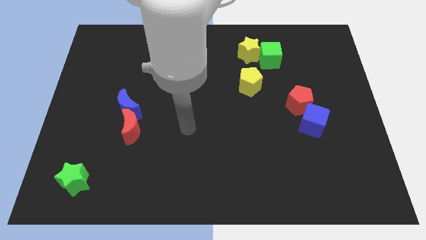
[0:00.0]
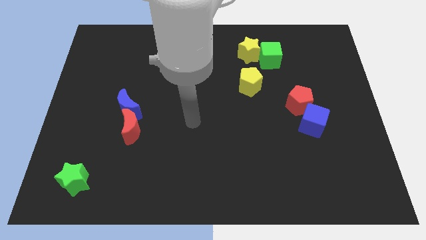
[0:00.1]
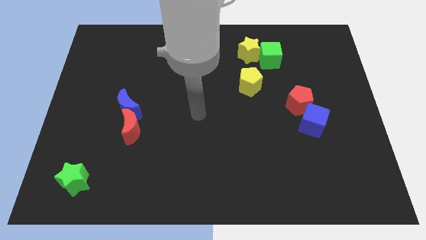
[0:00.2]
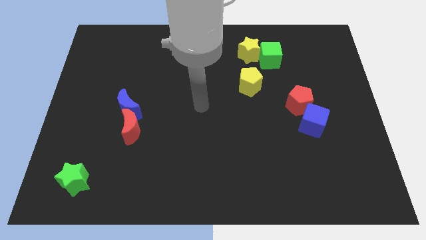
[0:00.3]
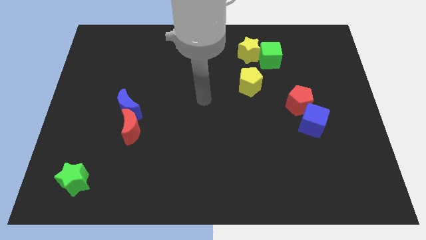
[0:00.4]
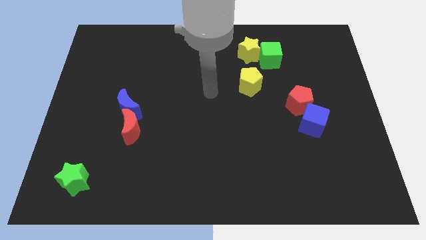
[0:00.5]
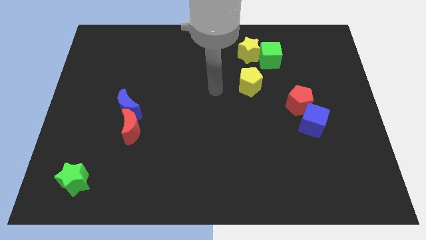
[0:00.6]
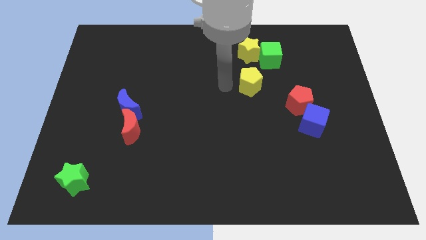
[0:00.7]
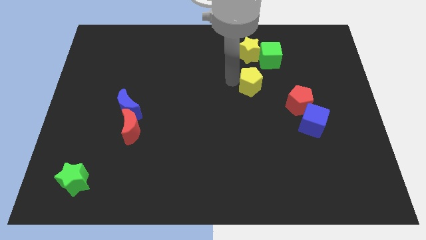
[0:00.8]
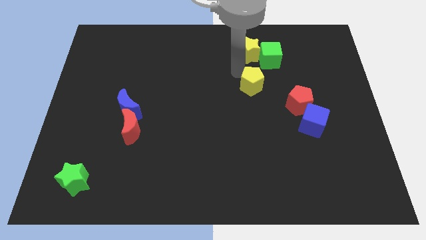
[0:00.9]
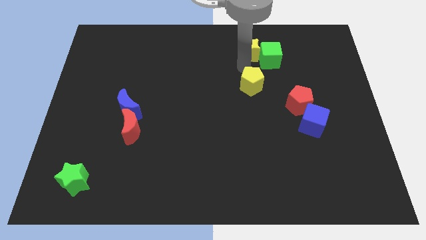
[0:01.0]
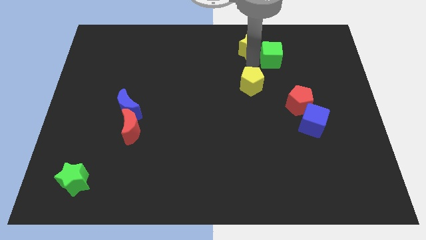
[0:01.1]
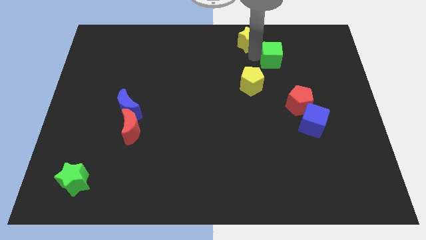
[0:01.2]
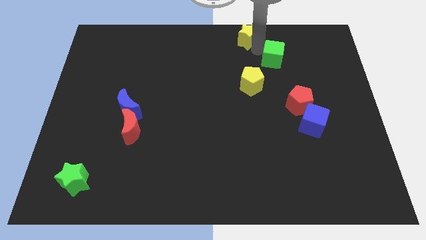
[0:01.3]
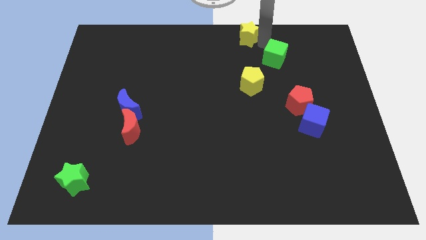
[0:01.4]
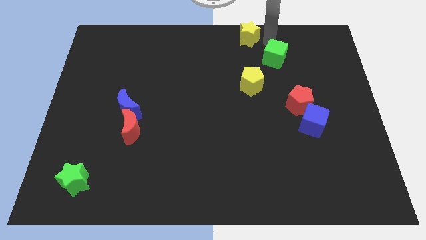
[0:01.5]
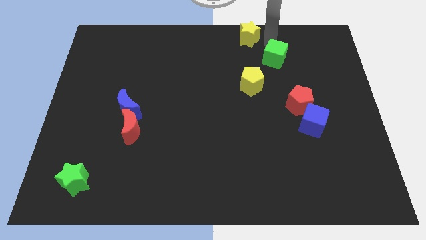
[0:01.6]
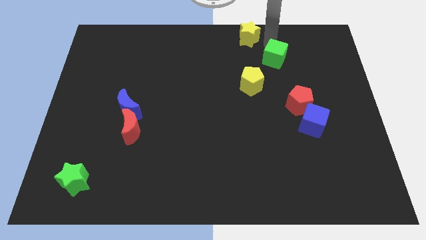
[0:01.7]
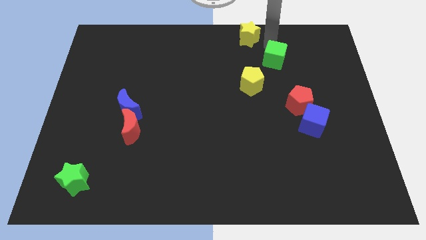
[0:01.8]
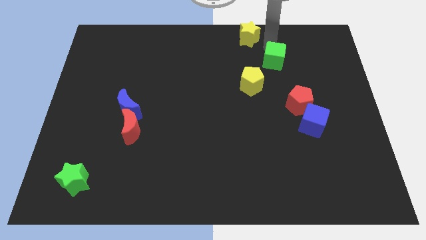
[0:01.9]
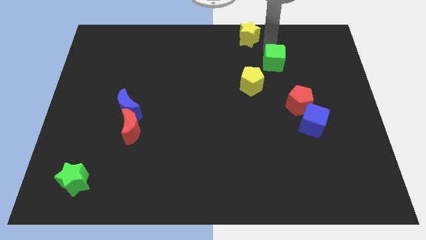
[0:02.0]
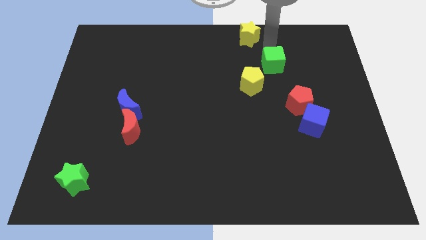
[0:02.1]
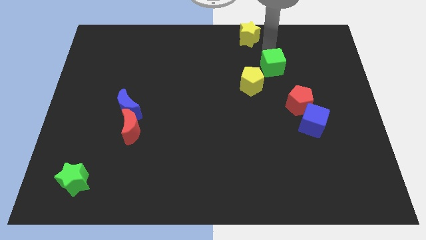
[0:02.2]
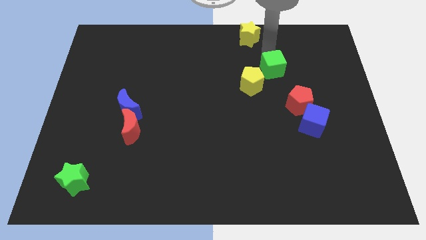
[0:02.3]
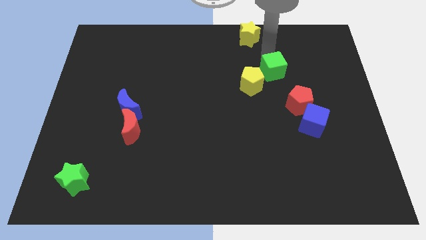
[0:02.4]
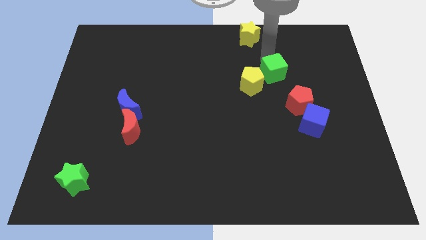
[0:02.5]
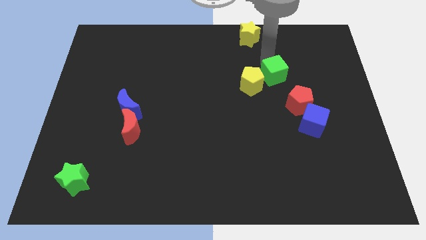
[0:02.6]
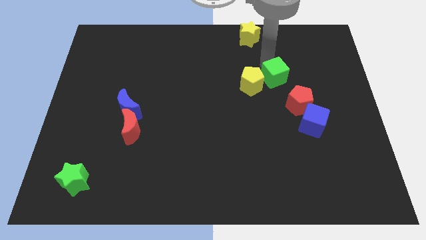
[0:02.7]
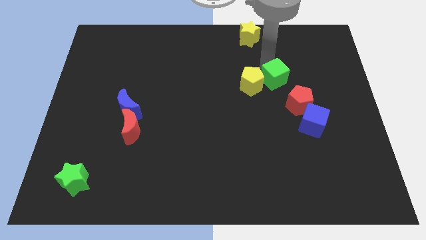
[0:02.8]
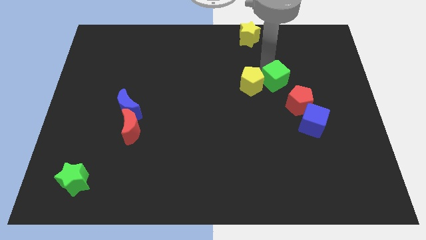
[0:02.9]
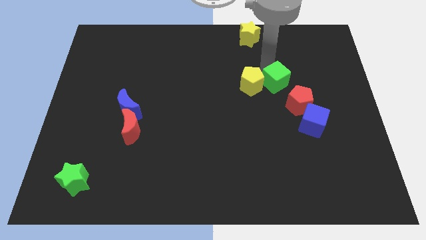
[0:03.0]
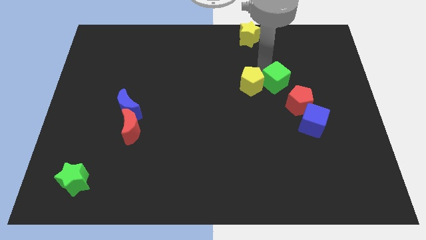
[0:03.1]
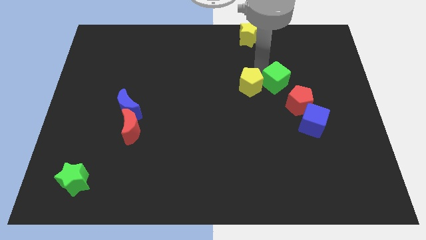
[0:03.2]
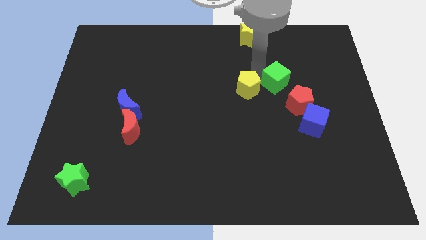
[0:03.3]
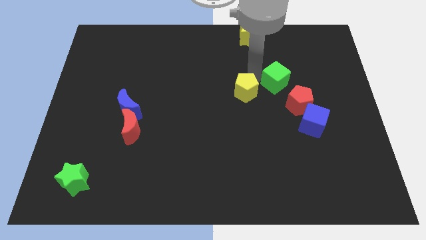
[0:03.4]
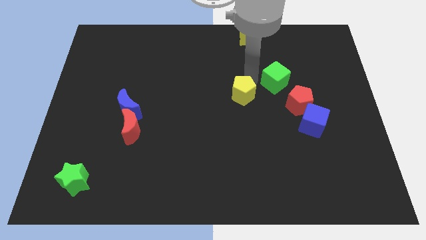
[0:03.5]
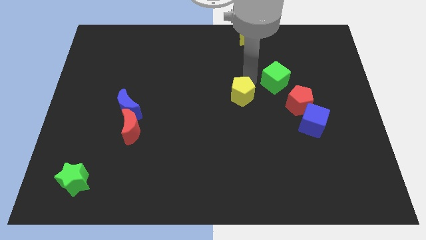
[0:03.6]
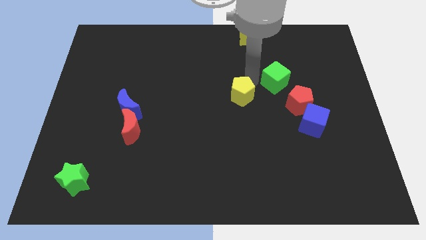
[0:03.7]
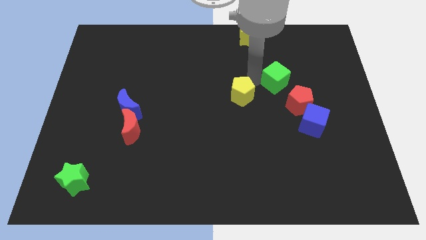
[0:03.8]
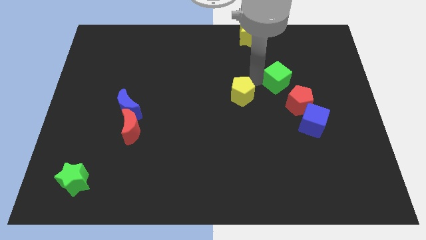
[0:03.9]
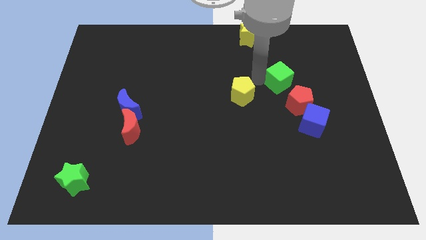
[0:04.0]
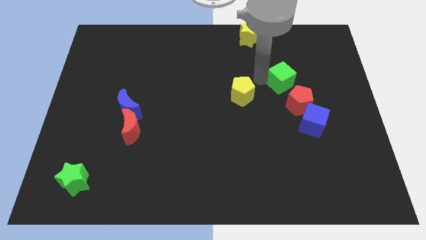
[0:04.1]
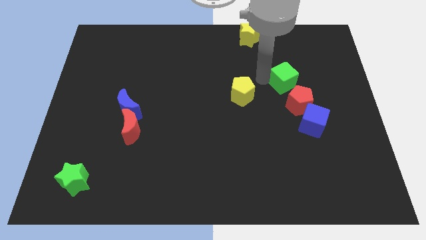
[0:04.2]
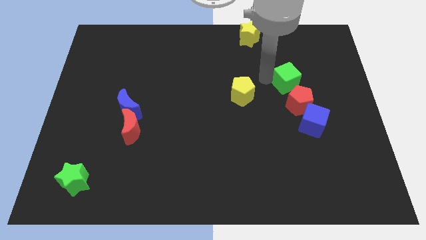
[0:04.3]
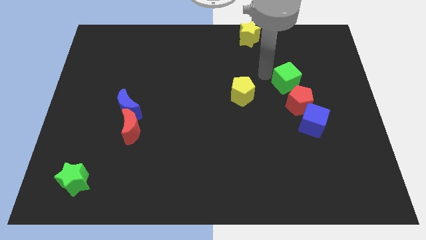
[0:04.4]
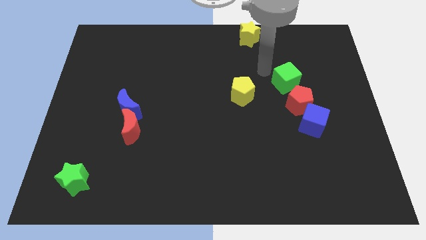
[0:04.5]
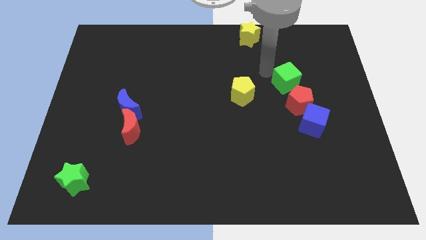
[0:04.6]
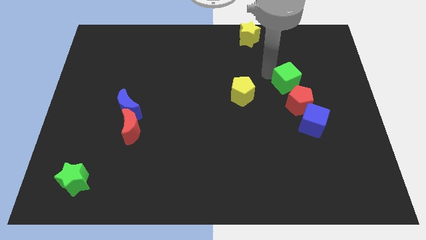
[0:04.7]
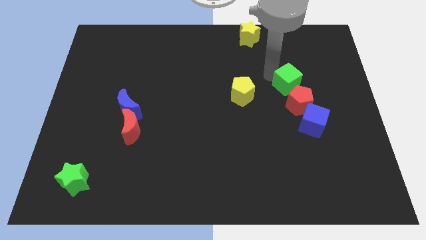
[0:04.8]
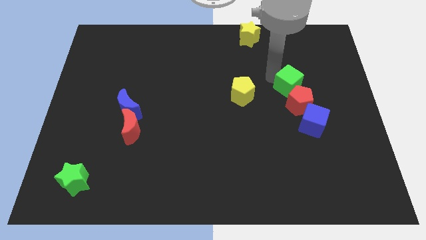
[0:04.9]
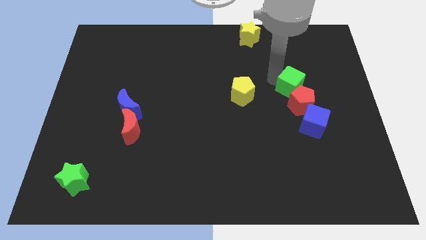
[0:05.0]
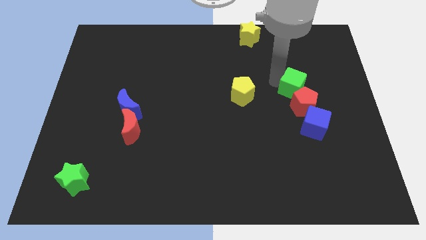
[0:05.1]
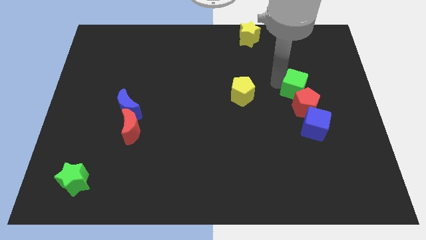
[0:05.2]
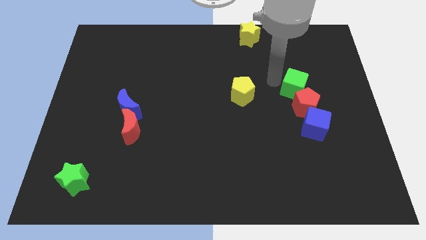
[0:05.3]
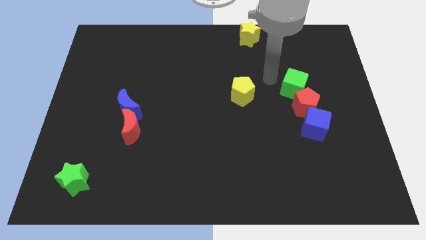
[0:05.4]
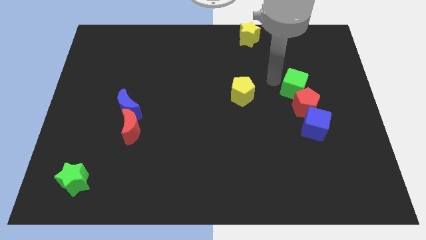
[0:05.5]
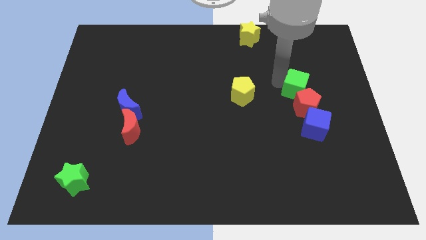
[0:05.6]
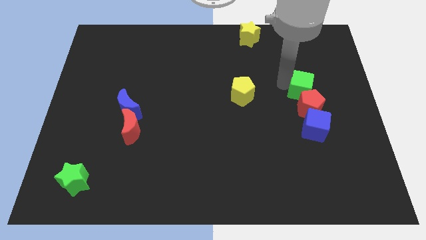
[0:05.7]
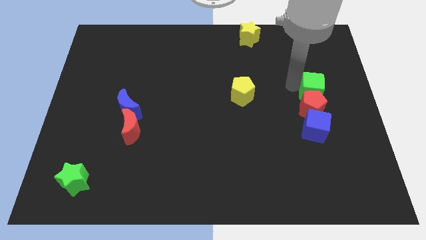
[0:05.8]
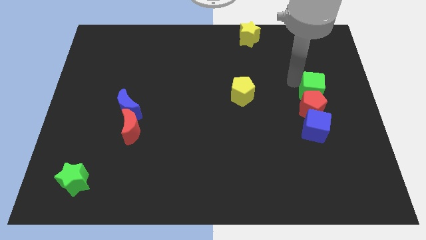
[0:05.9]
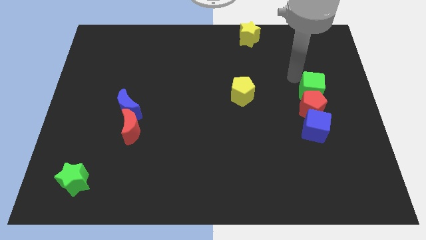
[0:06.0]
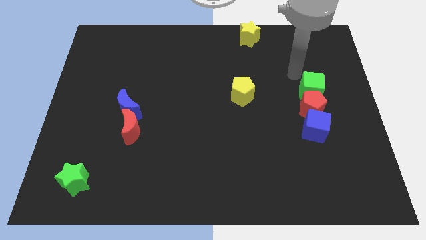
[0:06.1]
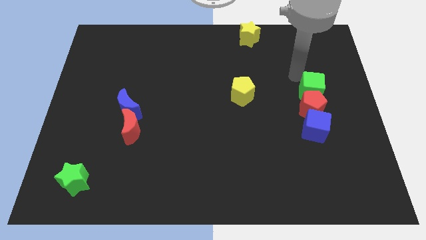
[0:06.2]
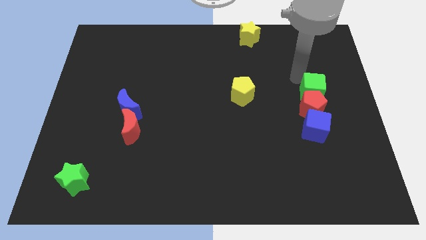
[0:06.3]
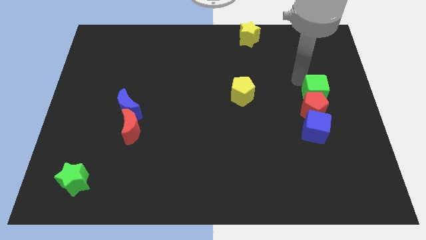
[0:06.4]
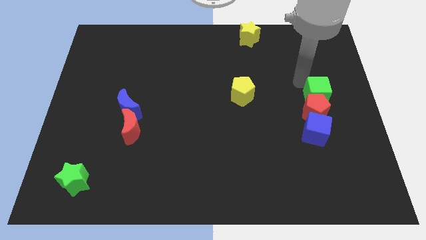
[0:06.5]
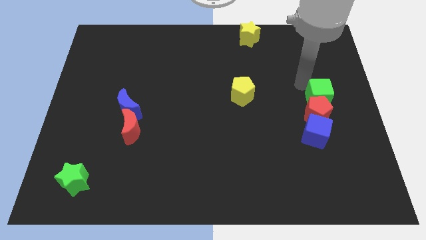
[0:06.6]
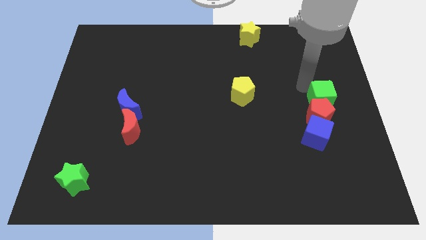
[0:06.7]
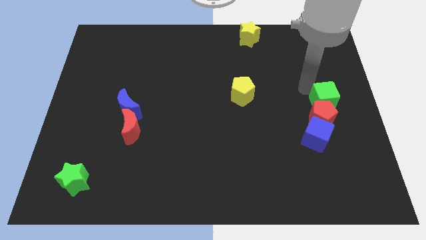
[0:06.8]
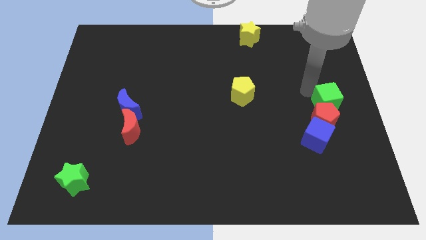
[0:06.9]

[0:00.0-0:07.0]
move the green cube to the top right of the blue cube

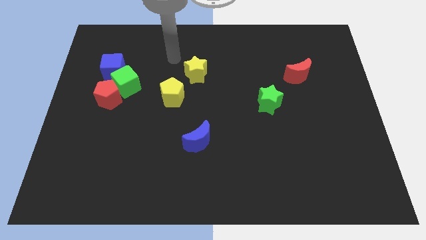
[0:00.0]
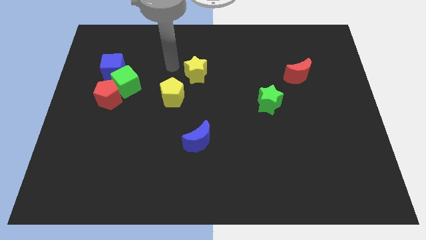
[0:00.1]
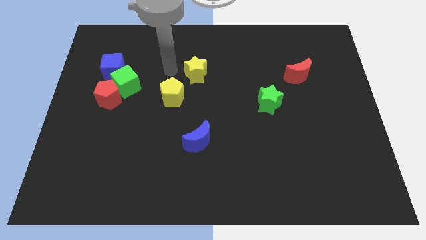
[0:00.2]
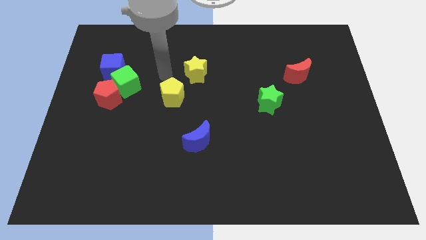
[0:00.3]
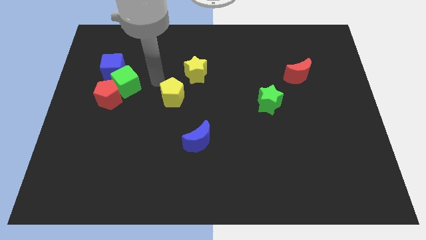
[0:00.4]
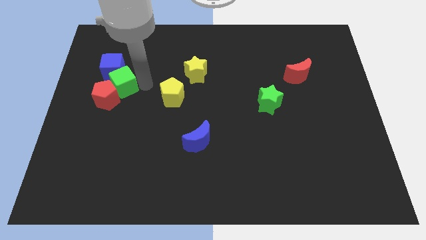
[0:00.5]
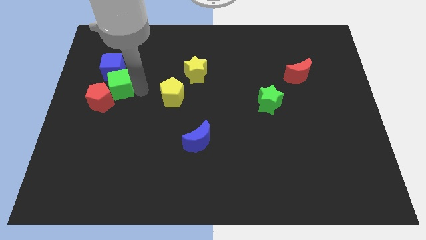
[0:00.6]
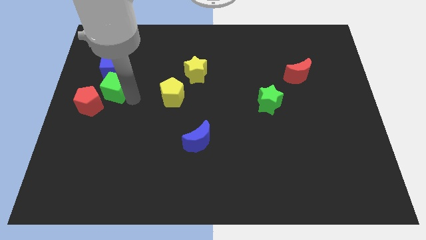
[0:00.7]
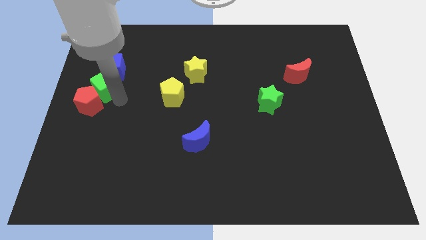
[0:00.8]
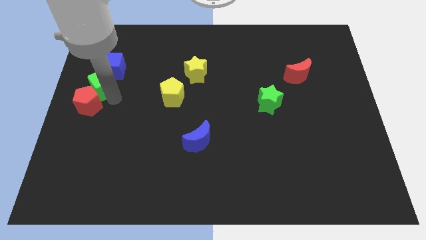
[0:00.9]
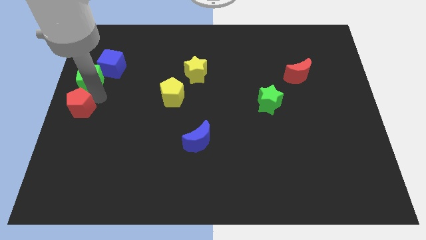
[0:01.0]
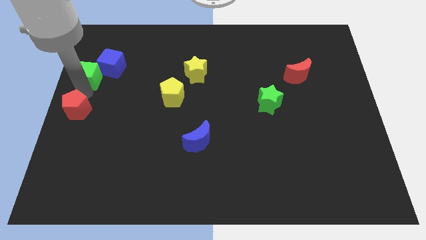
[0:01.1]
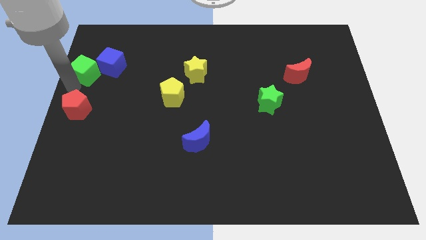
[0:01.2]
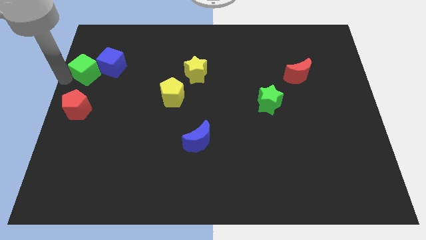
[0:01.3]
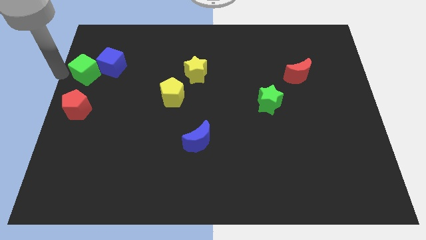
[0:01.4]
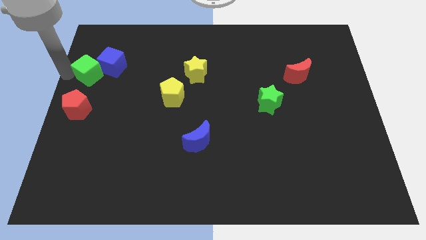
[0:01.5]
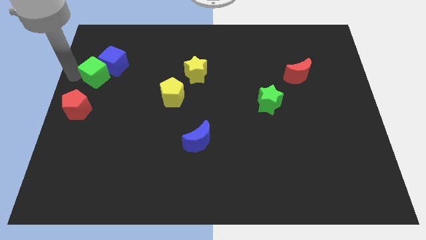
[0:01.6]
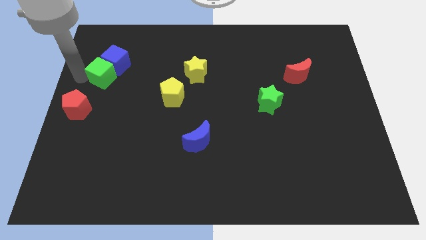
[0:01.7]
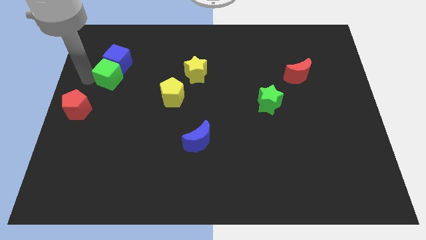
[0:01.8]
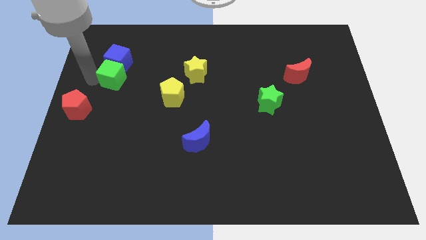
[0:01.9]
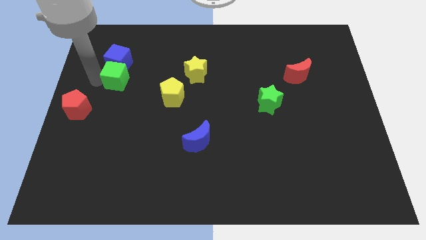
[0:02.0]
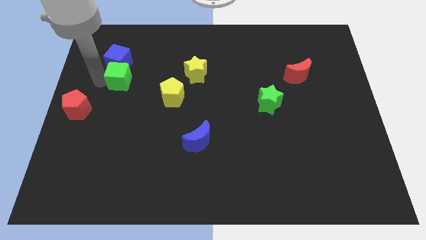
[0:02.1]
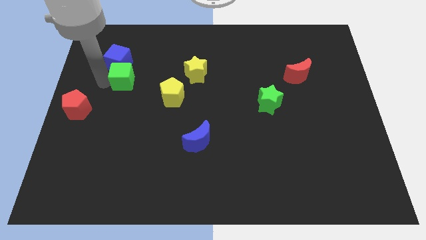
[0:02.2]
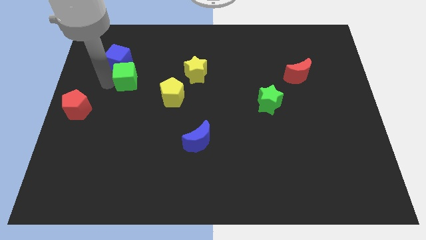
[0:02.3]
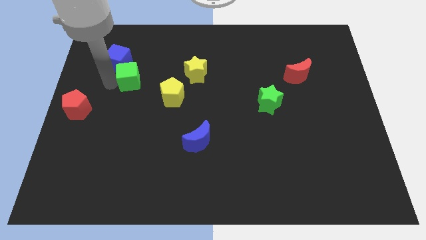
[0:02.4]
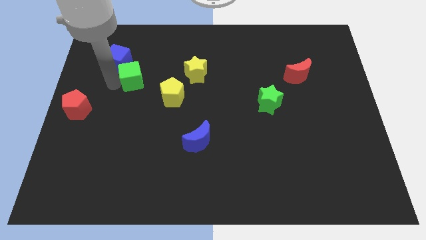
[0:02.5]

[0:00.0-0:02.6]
slide the green cube left of the yellow star
